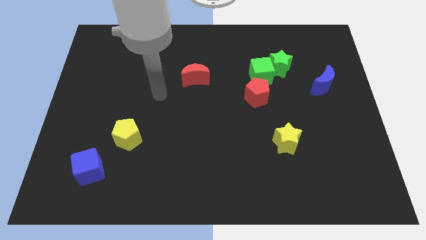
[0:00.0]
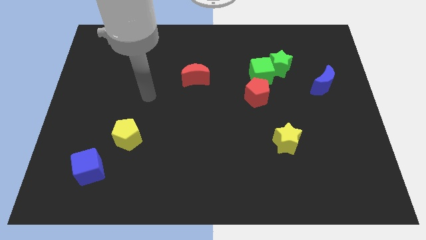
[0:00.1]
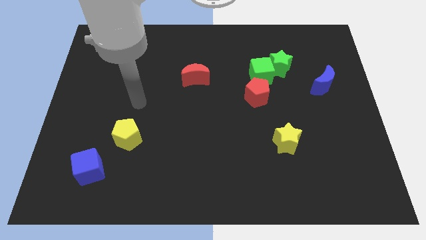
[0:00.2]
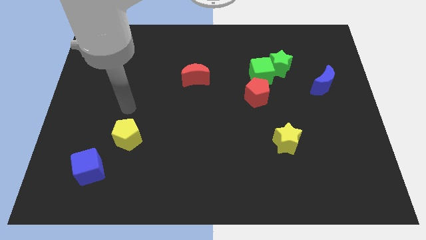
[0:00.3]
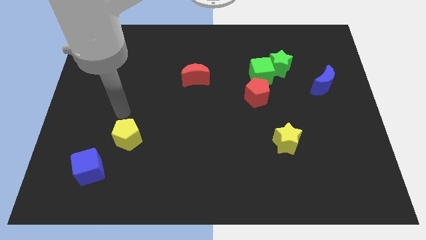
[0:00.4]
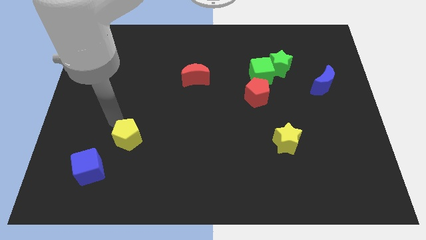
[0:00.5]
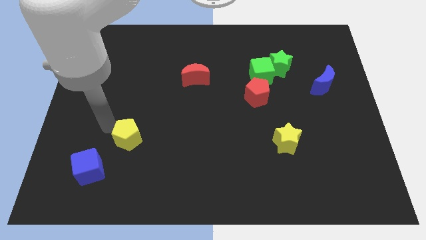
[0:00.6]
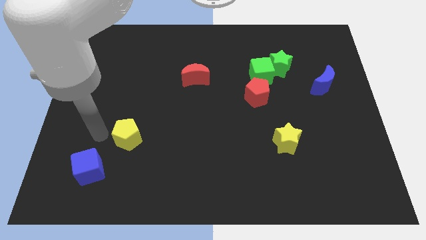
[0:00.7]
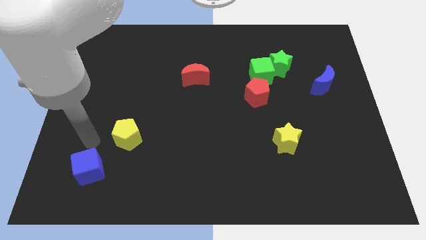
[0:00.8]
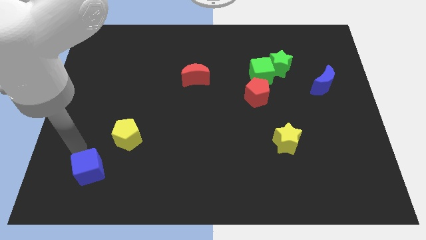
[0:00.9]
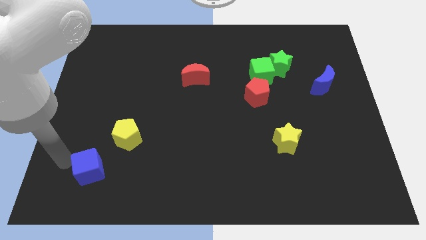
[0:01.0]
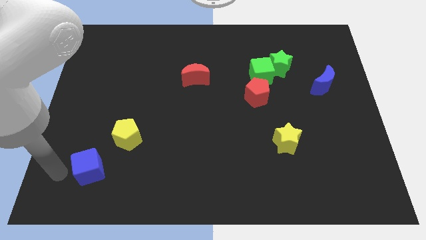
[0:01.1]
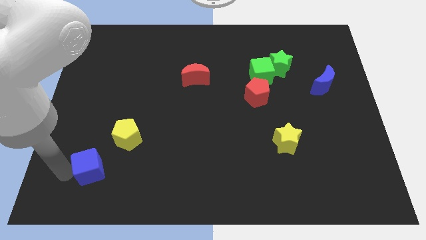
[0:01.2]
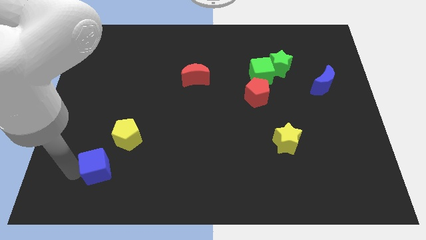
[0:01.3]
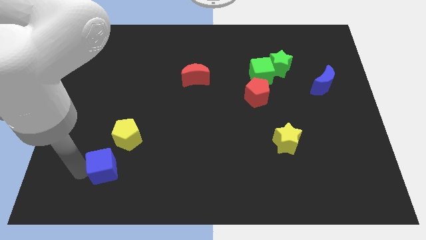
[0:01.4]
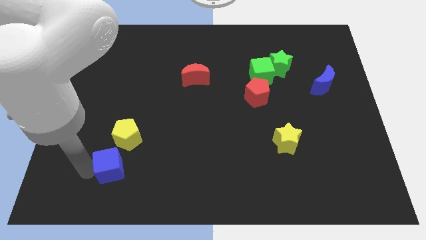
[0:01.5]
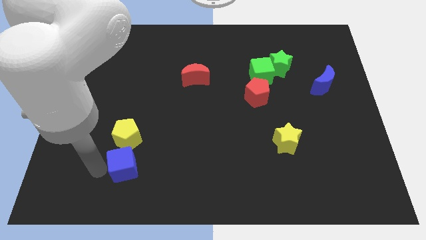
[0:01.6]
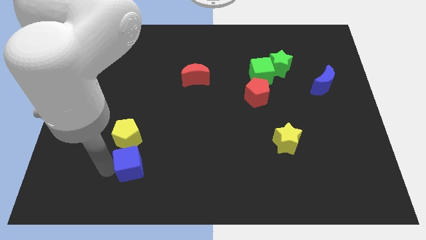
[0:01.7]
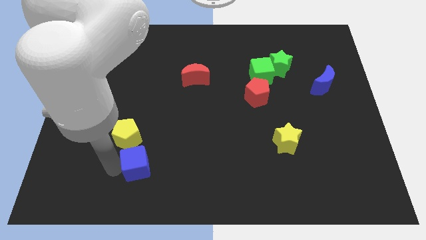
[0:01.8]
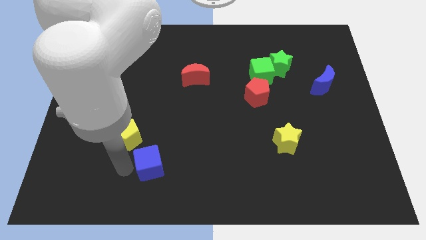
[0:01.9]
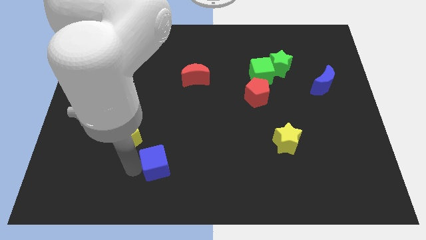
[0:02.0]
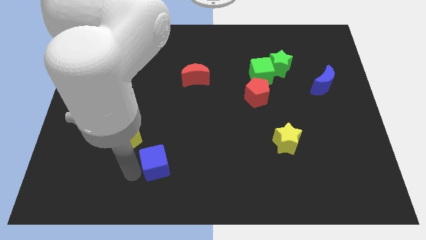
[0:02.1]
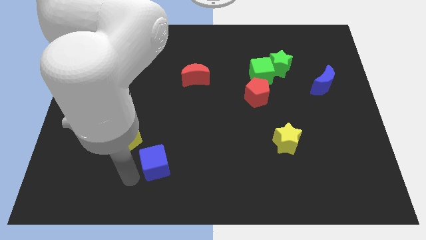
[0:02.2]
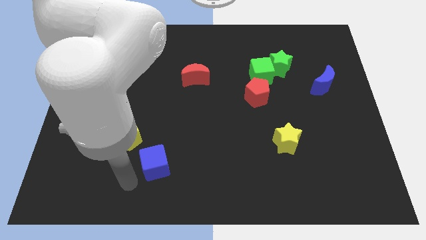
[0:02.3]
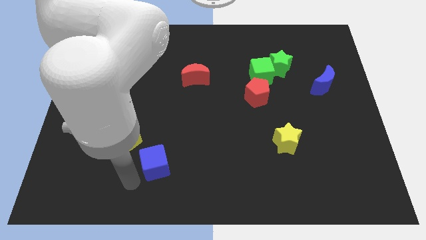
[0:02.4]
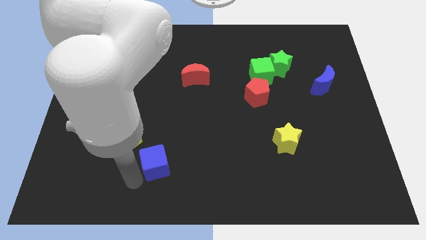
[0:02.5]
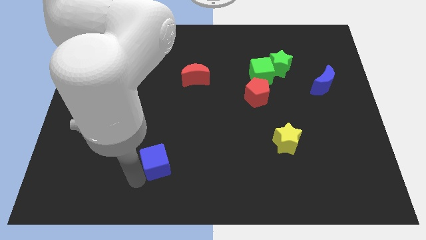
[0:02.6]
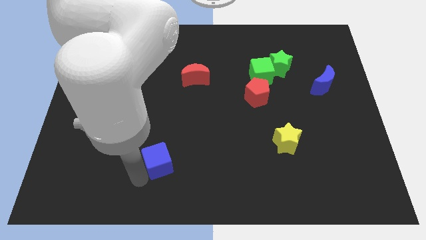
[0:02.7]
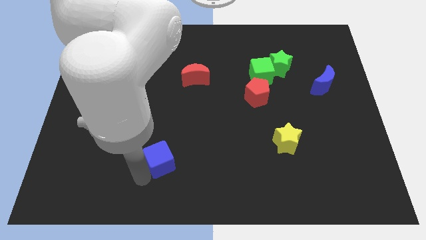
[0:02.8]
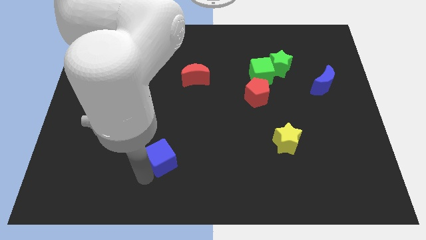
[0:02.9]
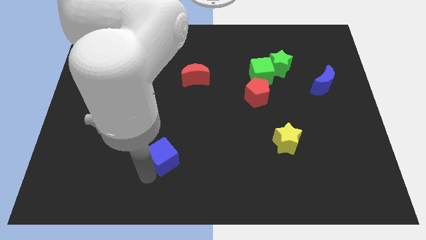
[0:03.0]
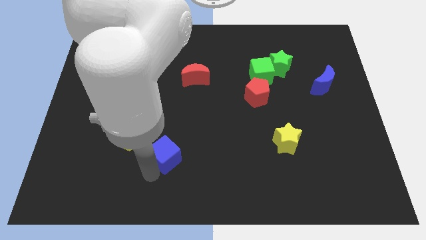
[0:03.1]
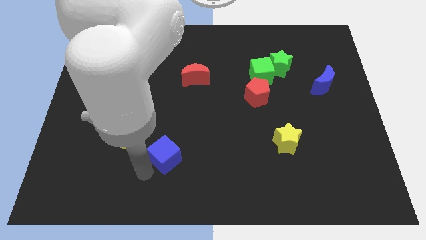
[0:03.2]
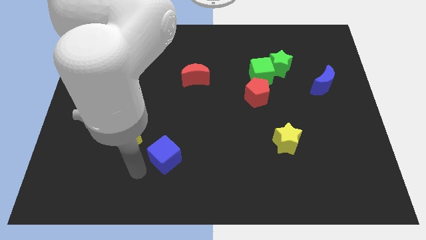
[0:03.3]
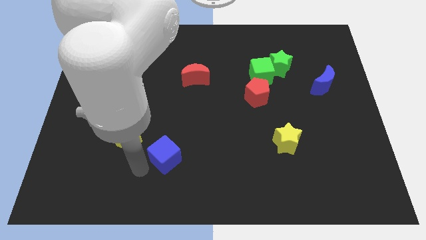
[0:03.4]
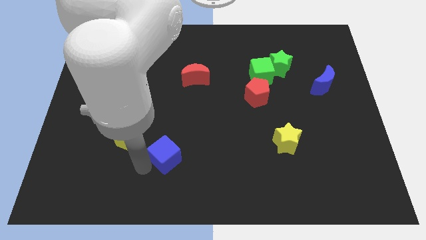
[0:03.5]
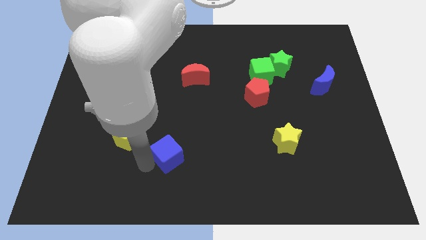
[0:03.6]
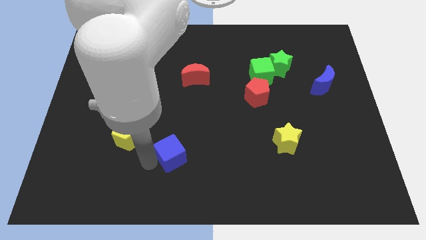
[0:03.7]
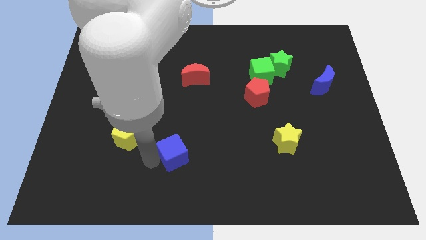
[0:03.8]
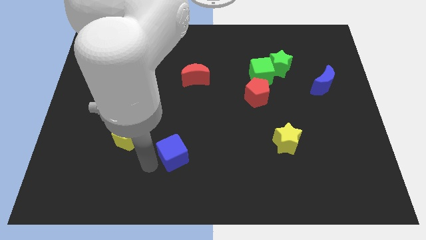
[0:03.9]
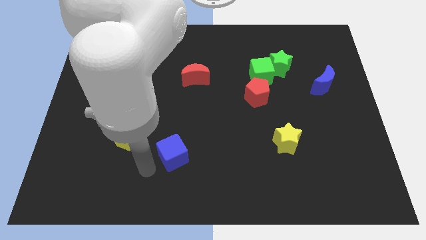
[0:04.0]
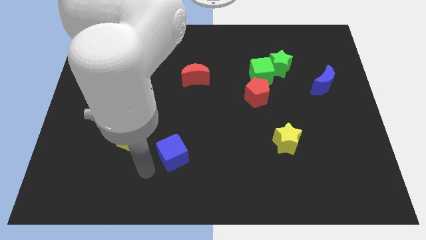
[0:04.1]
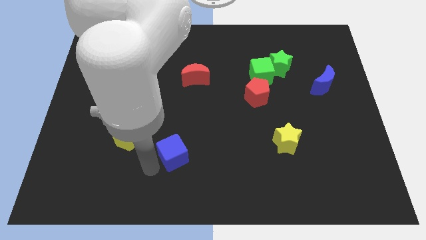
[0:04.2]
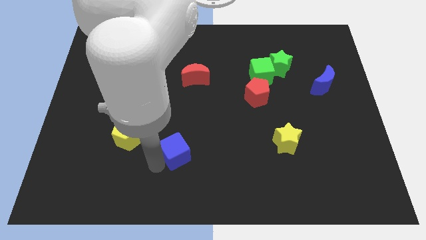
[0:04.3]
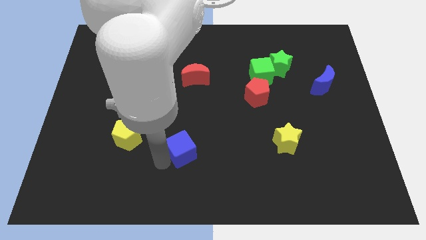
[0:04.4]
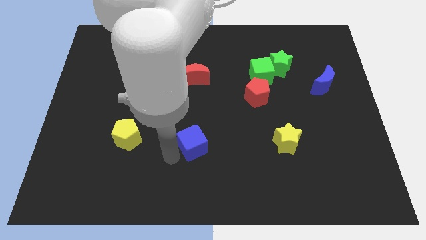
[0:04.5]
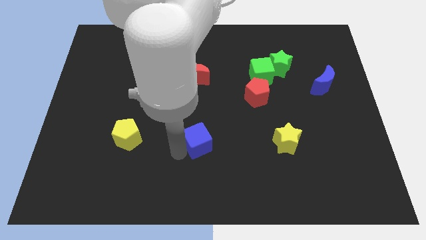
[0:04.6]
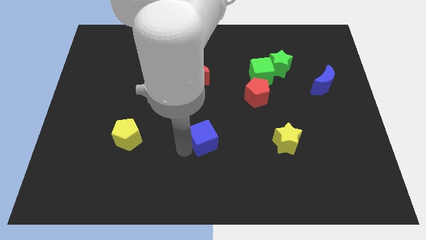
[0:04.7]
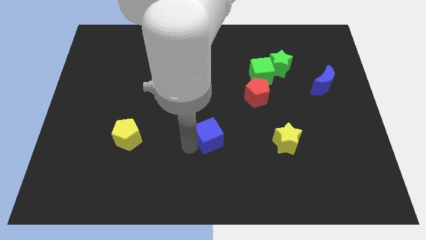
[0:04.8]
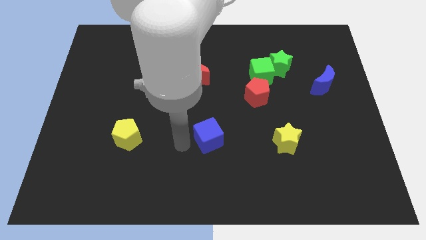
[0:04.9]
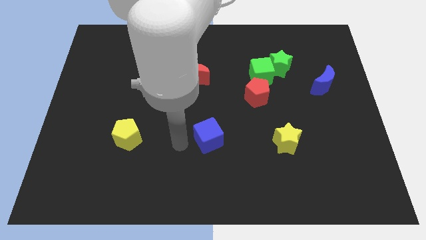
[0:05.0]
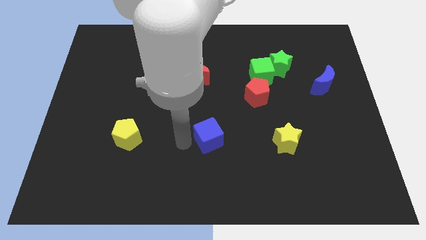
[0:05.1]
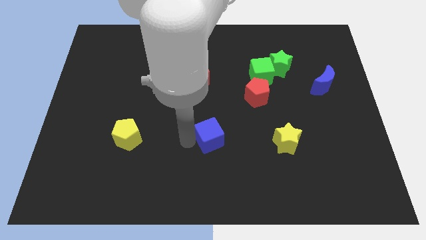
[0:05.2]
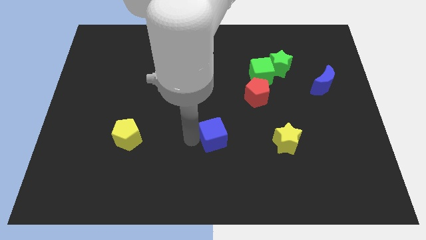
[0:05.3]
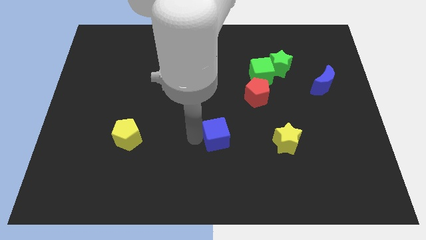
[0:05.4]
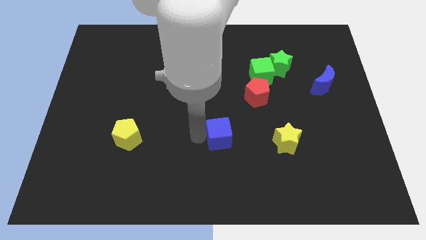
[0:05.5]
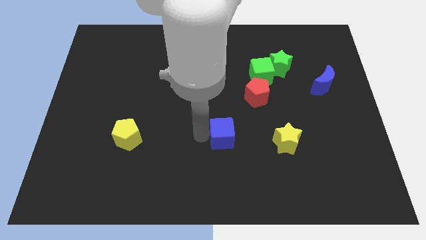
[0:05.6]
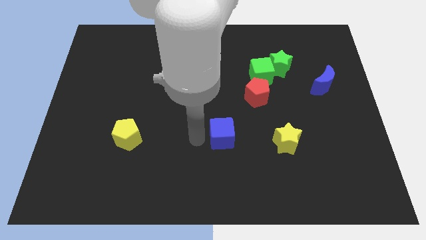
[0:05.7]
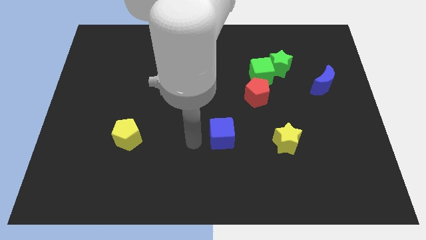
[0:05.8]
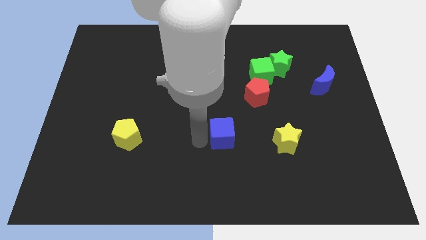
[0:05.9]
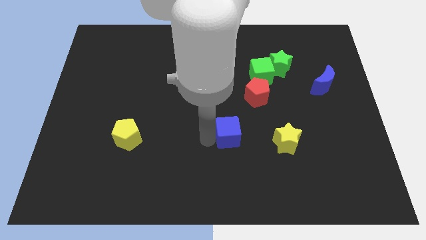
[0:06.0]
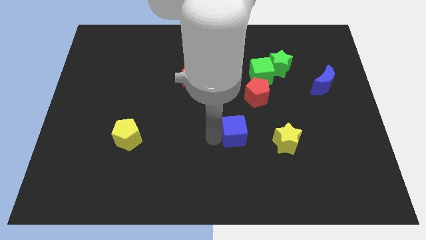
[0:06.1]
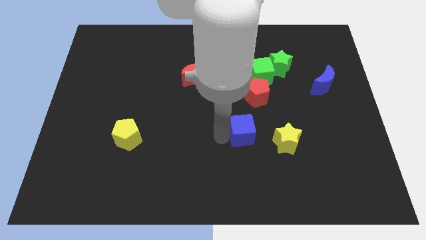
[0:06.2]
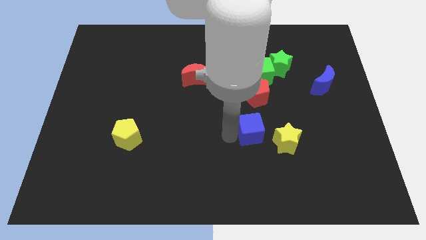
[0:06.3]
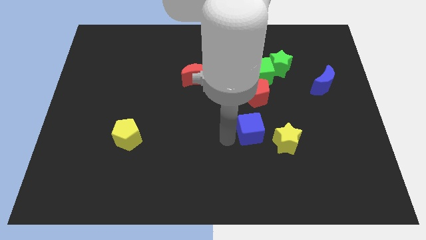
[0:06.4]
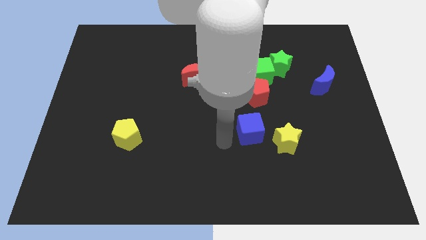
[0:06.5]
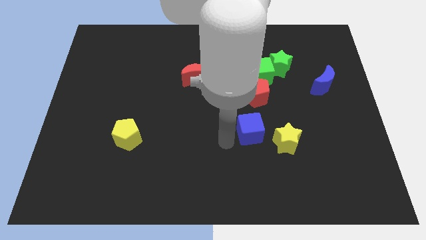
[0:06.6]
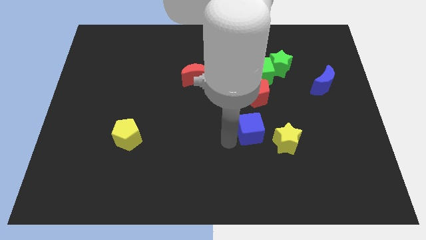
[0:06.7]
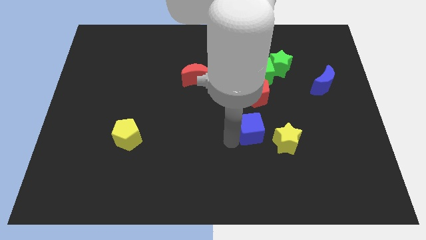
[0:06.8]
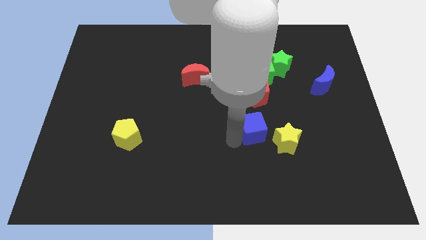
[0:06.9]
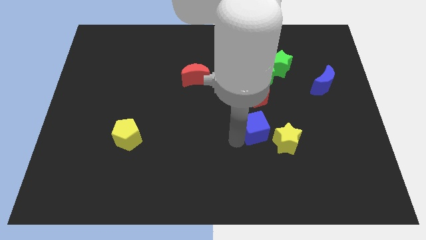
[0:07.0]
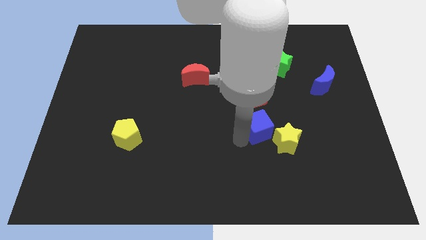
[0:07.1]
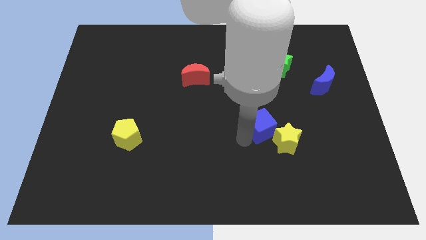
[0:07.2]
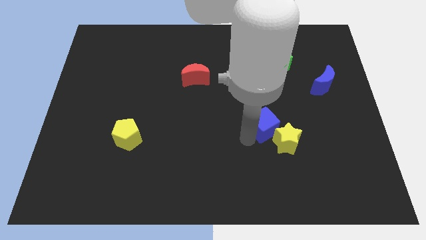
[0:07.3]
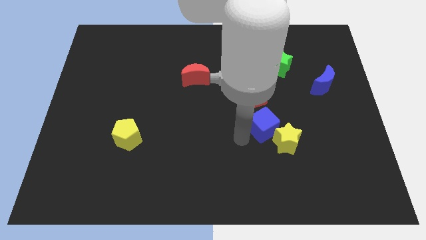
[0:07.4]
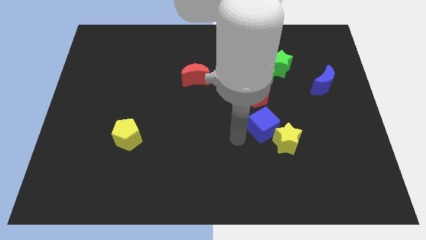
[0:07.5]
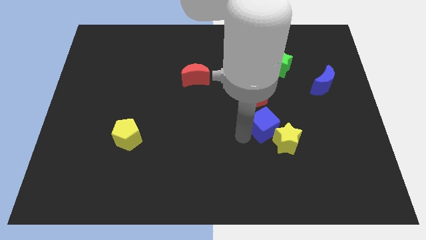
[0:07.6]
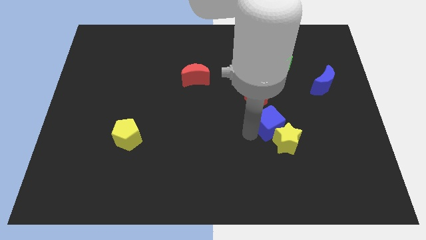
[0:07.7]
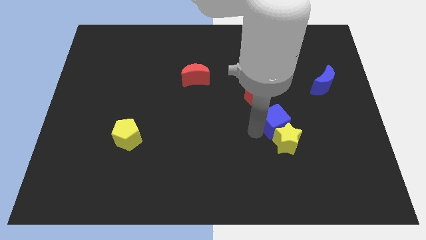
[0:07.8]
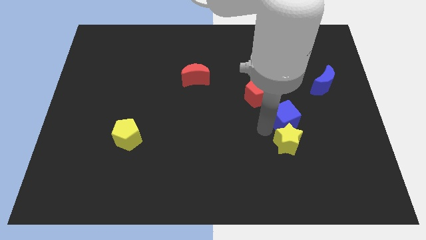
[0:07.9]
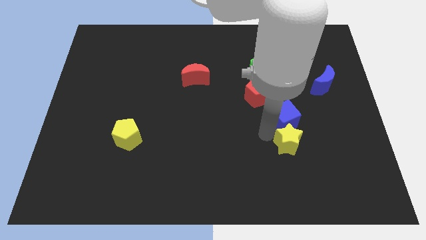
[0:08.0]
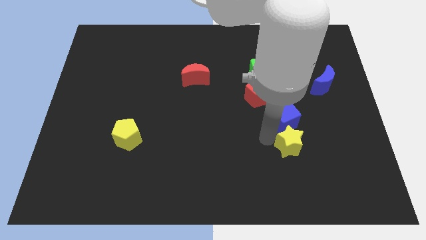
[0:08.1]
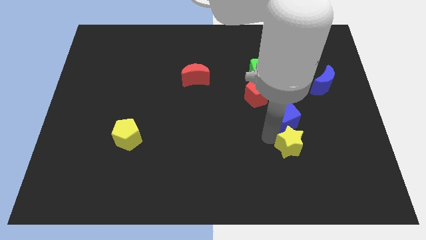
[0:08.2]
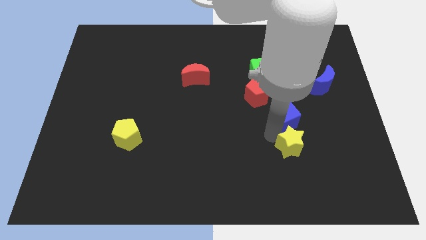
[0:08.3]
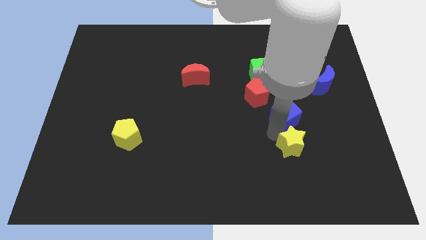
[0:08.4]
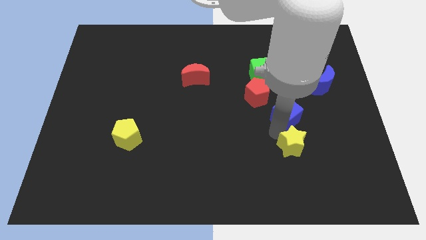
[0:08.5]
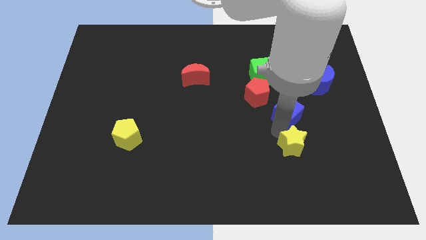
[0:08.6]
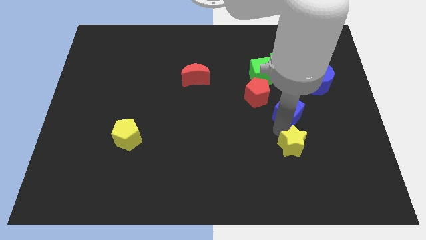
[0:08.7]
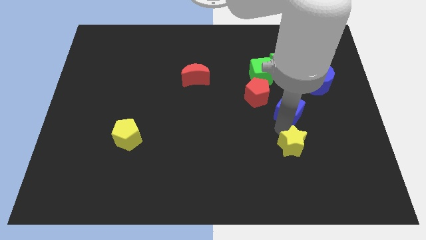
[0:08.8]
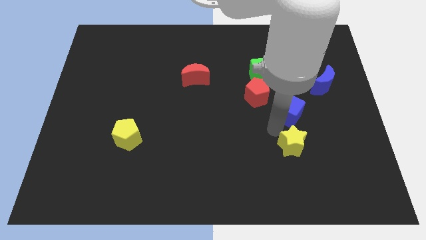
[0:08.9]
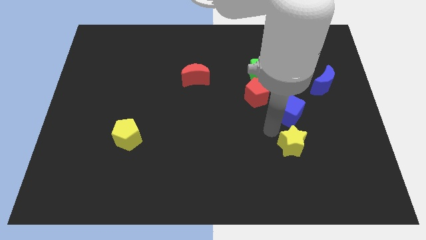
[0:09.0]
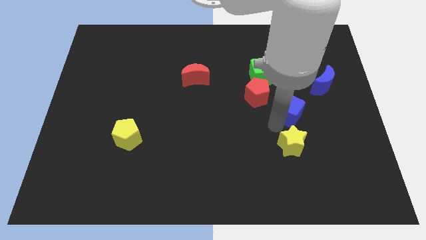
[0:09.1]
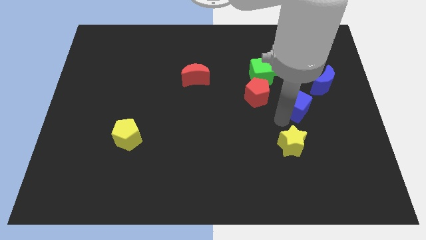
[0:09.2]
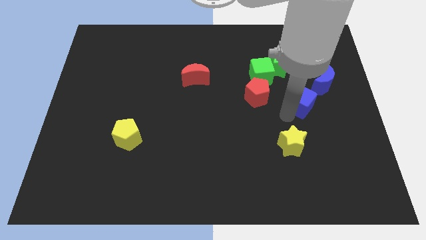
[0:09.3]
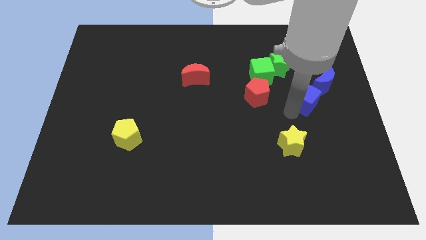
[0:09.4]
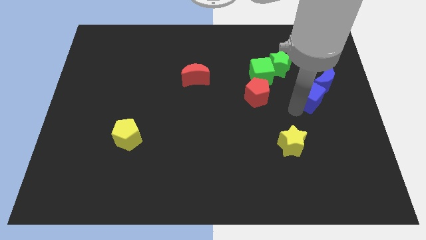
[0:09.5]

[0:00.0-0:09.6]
slide the blue cube close to the blue moon
